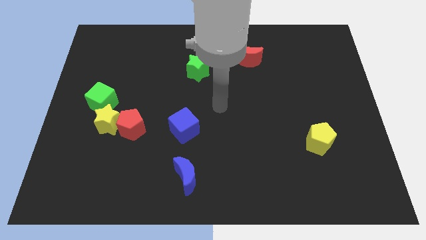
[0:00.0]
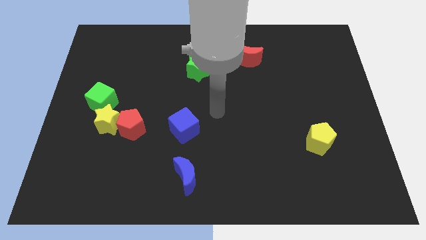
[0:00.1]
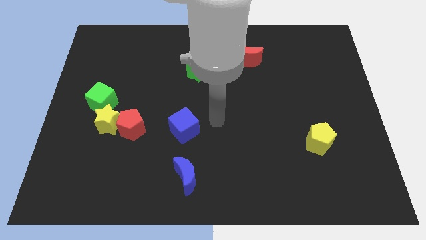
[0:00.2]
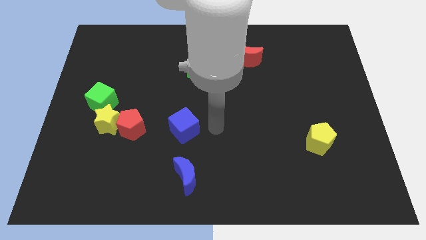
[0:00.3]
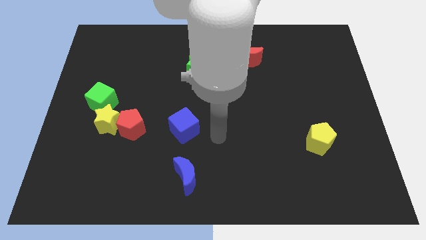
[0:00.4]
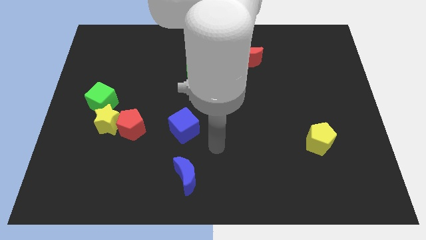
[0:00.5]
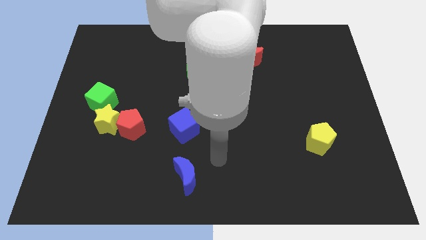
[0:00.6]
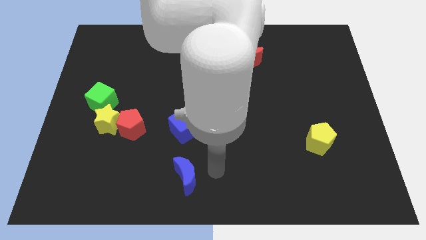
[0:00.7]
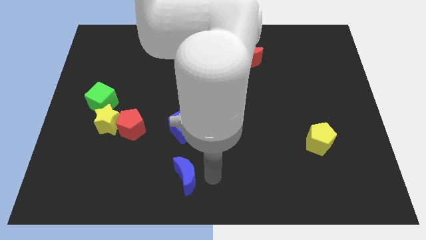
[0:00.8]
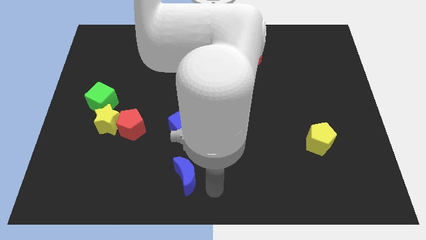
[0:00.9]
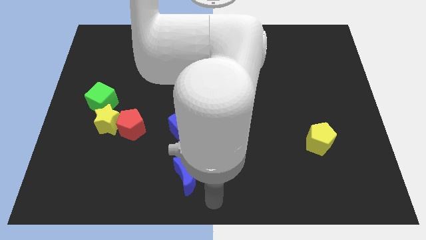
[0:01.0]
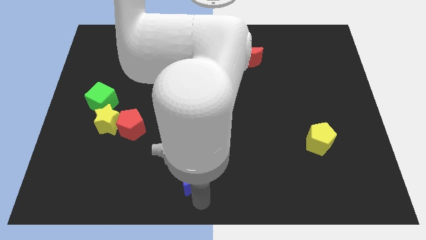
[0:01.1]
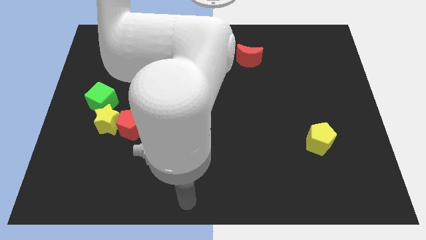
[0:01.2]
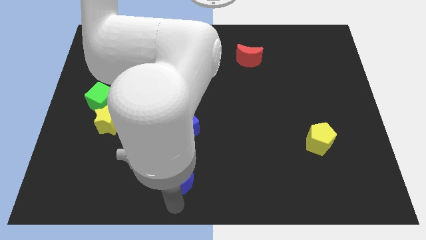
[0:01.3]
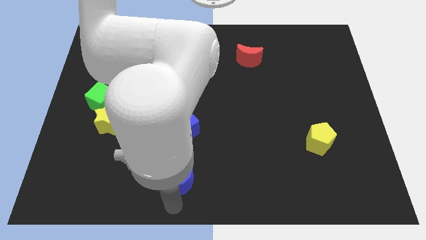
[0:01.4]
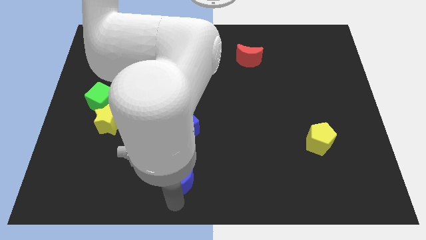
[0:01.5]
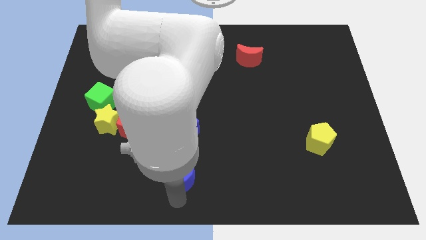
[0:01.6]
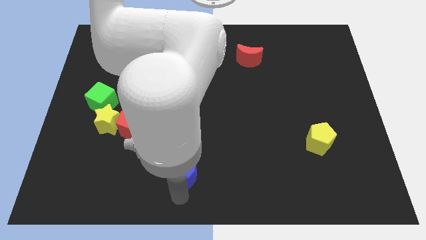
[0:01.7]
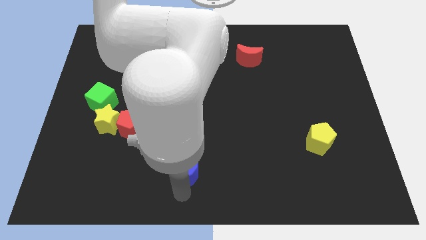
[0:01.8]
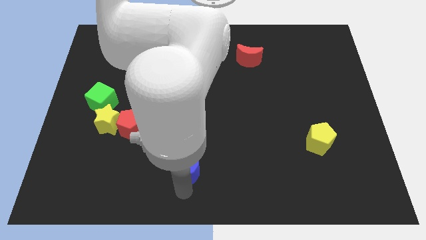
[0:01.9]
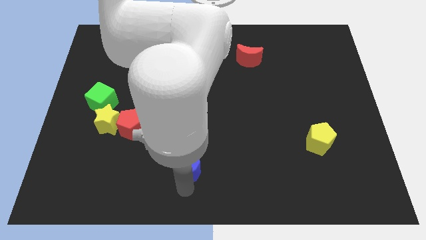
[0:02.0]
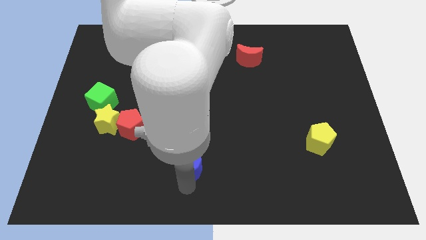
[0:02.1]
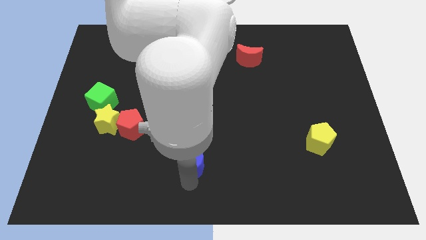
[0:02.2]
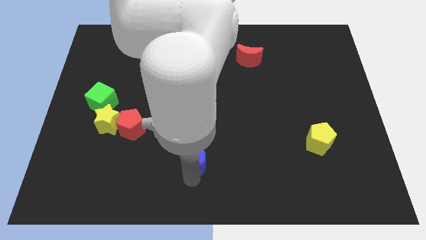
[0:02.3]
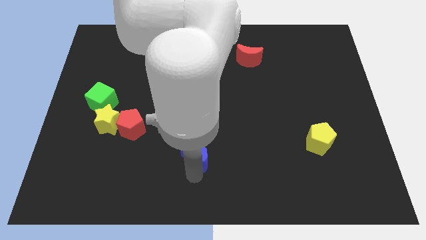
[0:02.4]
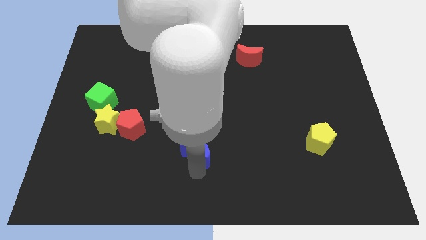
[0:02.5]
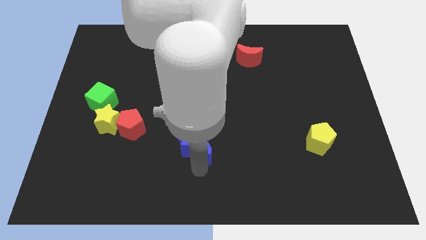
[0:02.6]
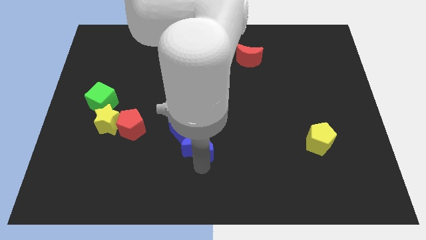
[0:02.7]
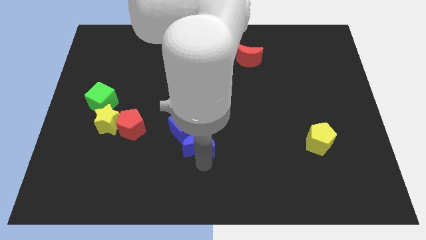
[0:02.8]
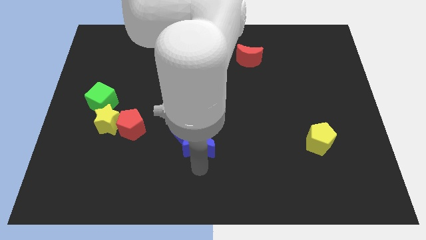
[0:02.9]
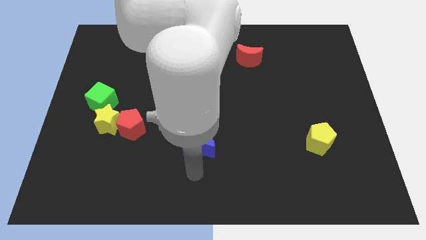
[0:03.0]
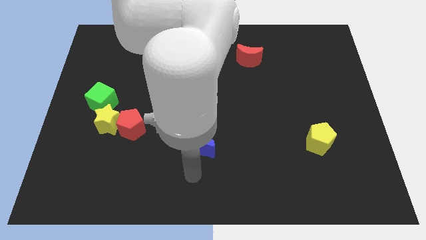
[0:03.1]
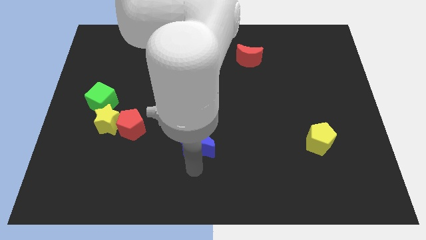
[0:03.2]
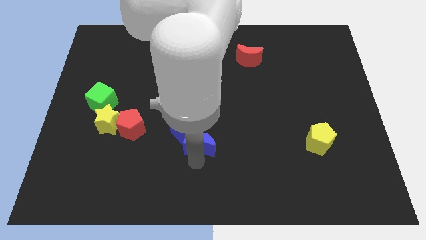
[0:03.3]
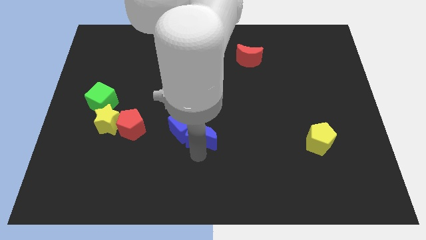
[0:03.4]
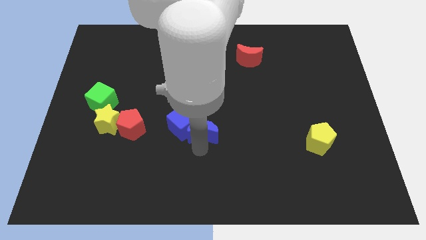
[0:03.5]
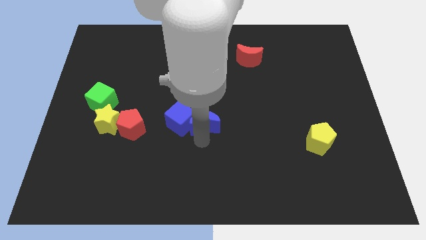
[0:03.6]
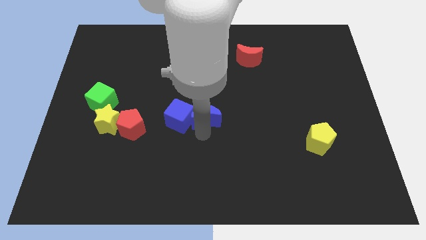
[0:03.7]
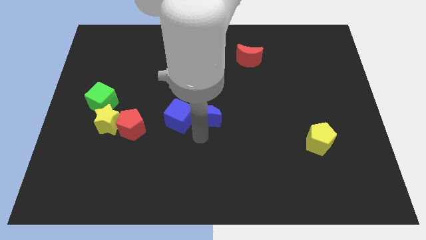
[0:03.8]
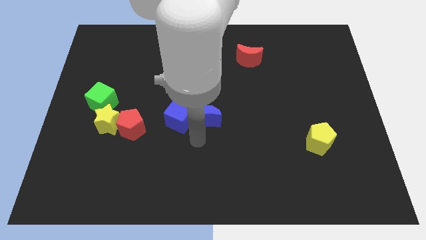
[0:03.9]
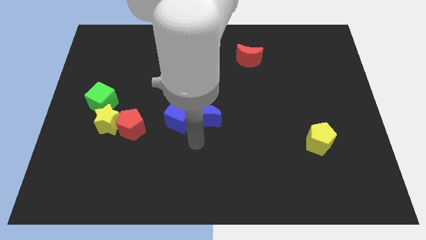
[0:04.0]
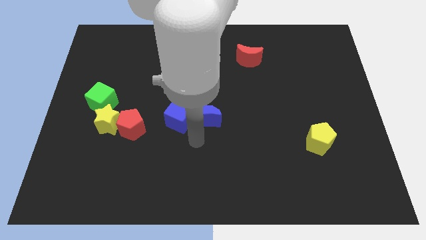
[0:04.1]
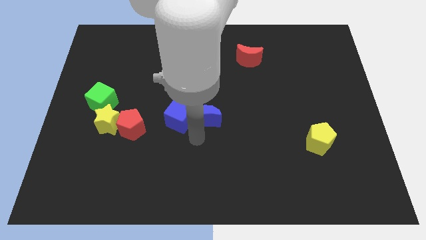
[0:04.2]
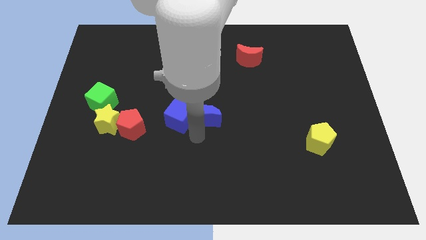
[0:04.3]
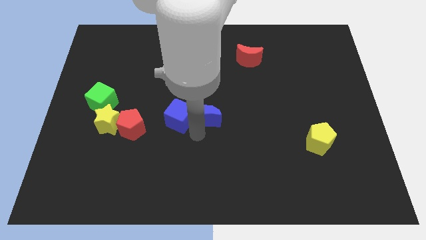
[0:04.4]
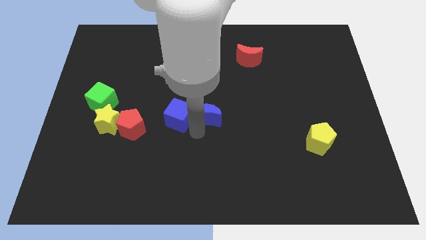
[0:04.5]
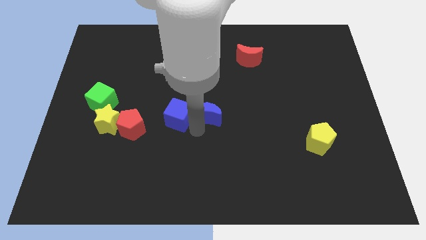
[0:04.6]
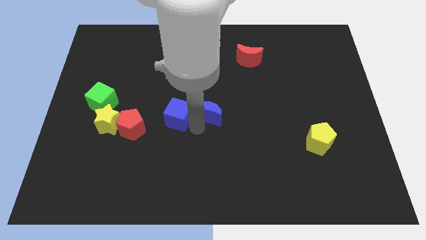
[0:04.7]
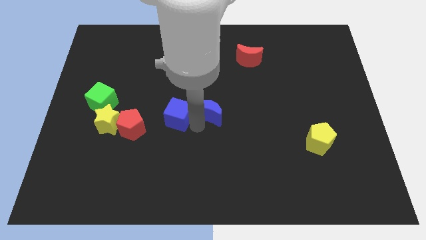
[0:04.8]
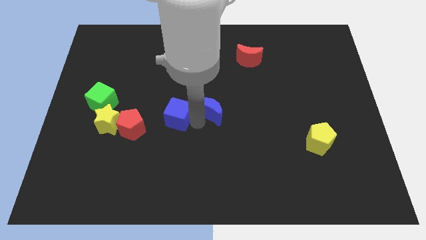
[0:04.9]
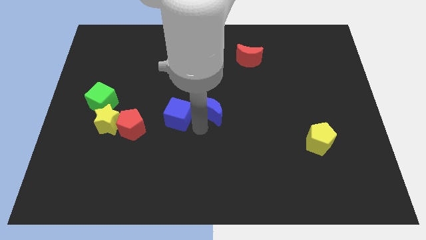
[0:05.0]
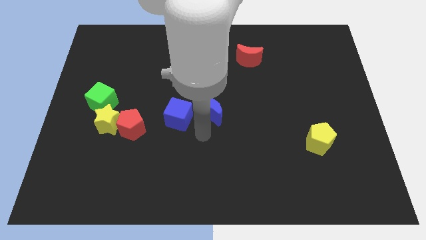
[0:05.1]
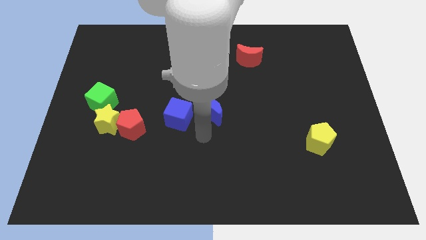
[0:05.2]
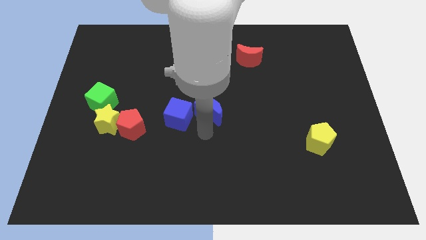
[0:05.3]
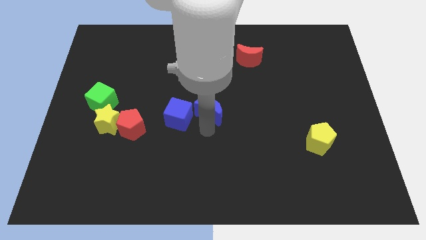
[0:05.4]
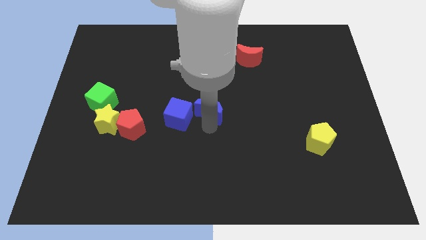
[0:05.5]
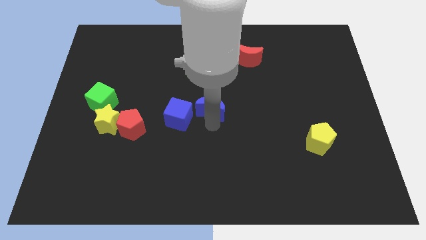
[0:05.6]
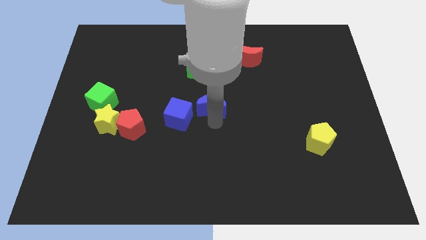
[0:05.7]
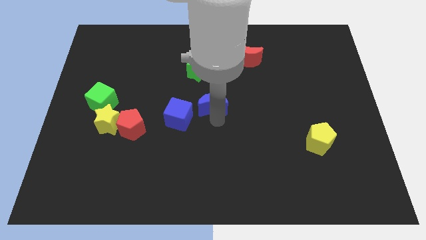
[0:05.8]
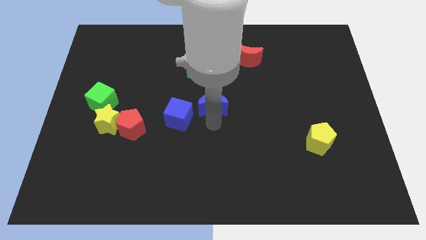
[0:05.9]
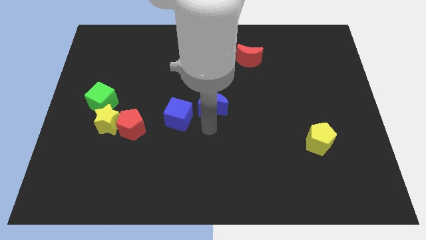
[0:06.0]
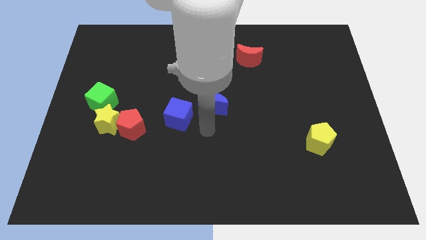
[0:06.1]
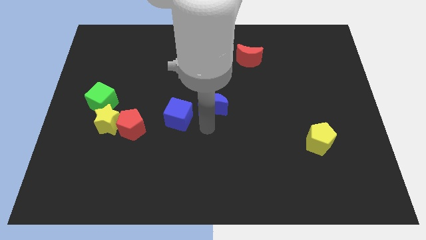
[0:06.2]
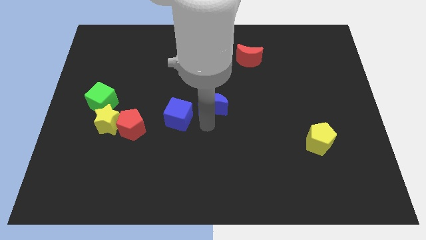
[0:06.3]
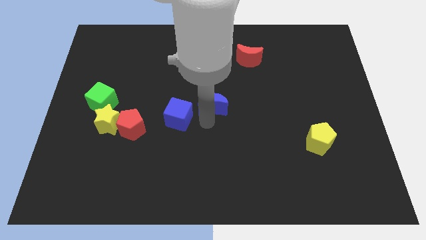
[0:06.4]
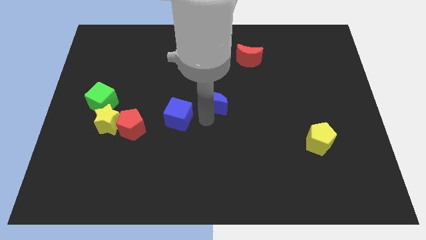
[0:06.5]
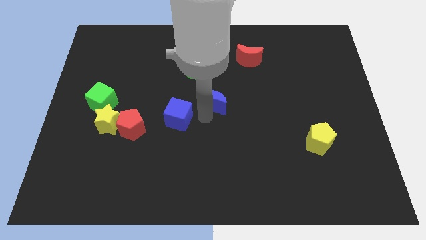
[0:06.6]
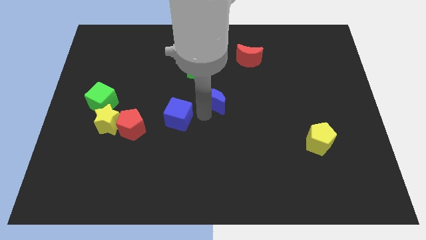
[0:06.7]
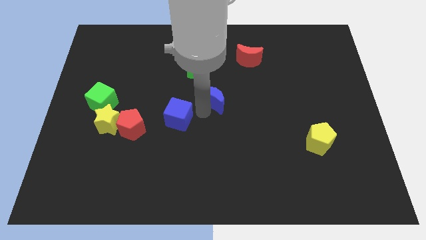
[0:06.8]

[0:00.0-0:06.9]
slide the blue moon to the bottom right of the green star

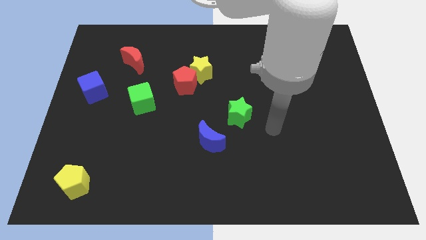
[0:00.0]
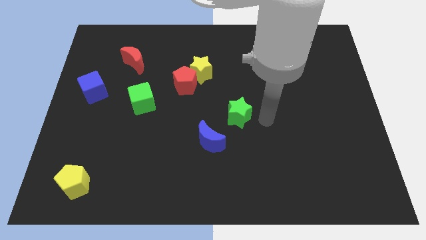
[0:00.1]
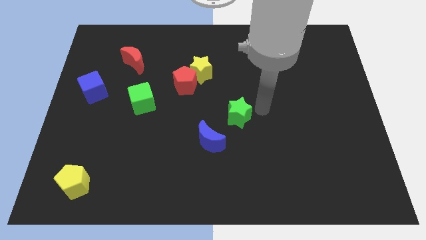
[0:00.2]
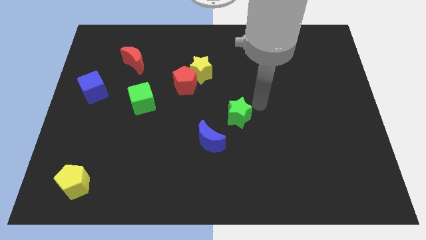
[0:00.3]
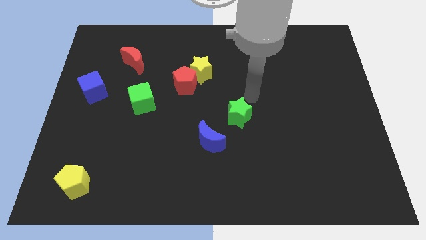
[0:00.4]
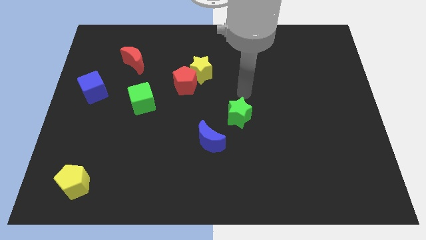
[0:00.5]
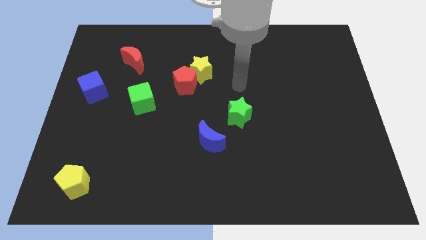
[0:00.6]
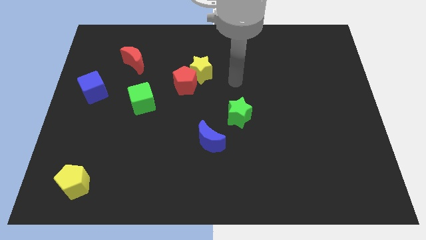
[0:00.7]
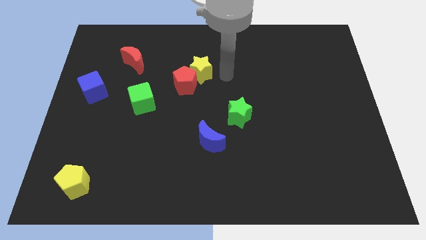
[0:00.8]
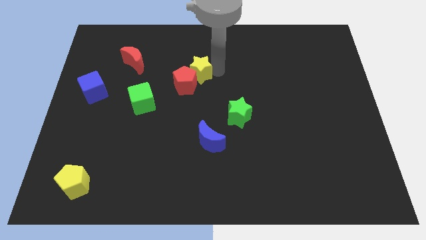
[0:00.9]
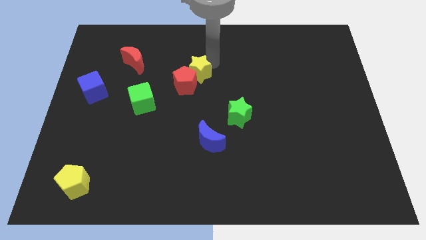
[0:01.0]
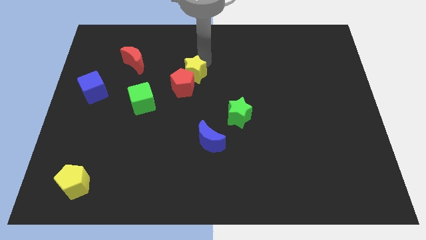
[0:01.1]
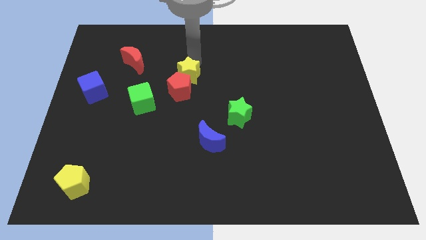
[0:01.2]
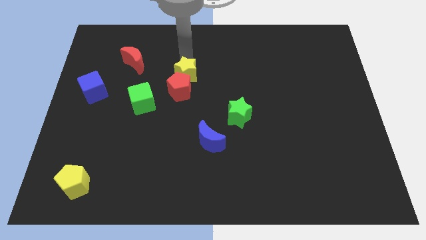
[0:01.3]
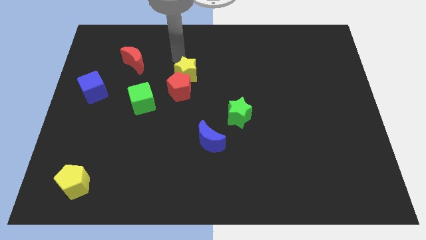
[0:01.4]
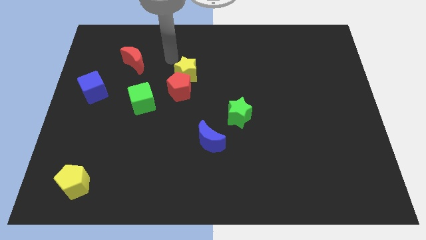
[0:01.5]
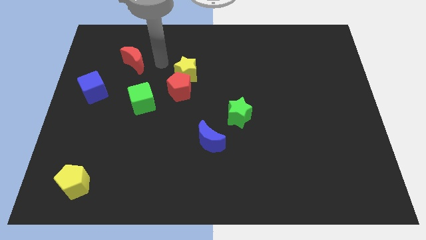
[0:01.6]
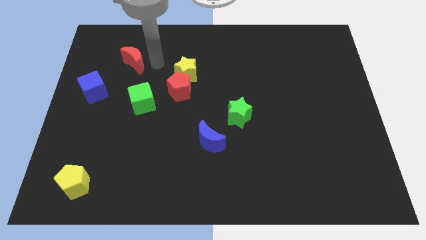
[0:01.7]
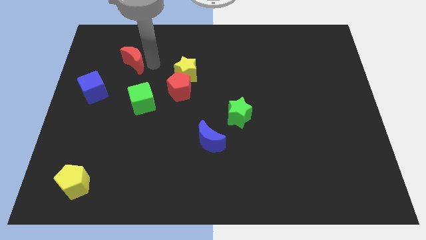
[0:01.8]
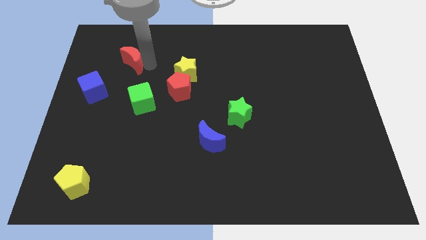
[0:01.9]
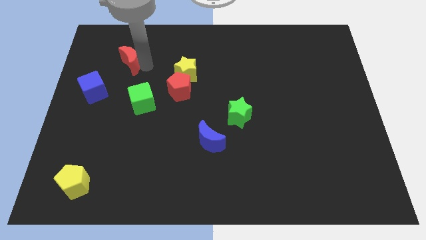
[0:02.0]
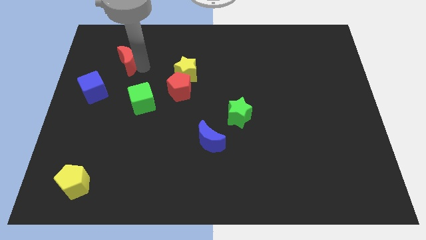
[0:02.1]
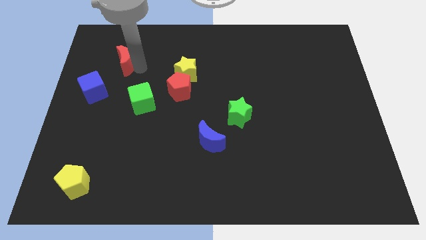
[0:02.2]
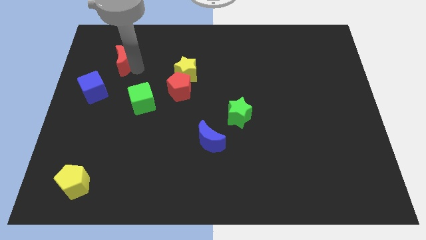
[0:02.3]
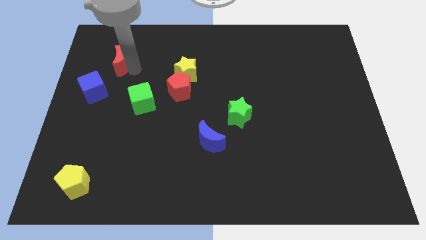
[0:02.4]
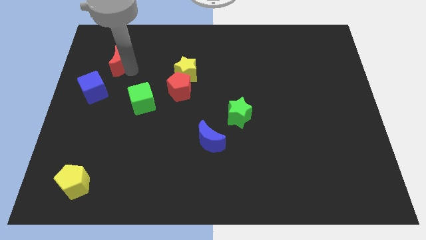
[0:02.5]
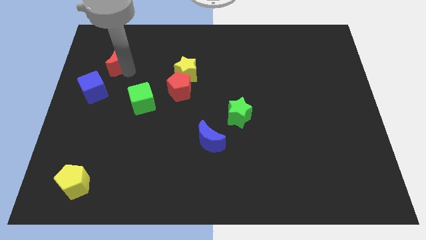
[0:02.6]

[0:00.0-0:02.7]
move the red moon to the top of the blue cube
